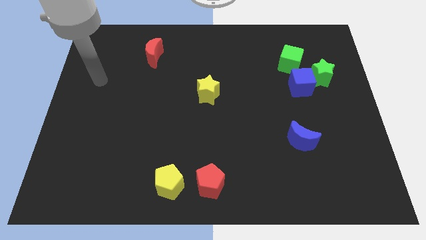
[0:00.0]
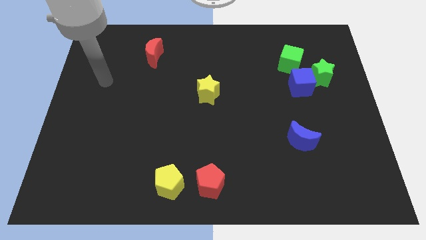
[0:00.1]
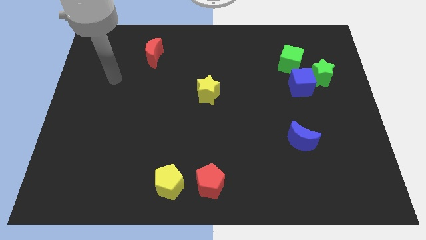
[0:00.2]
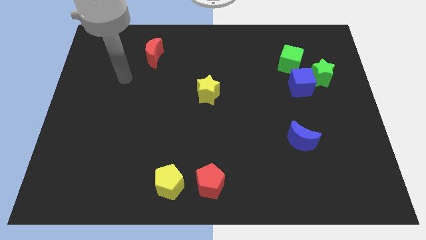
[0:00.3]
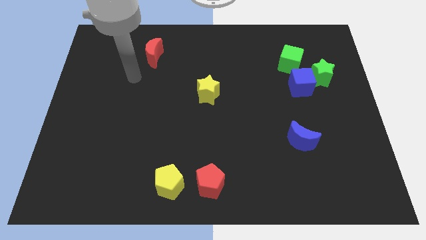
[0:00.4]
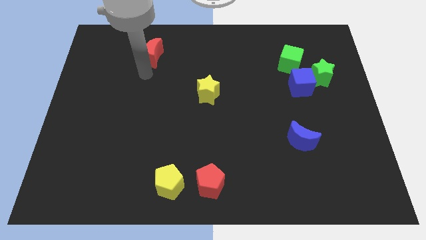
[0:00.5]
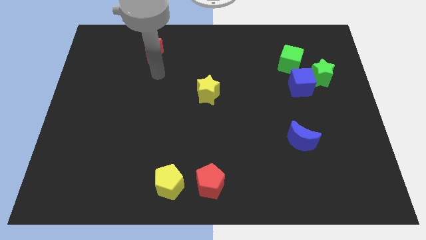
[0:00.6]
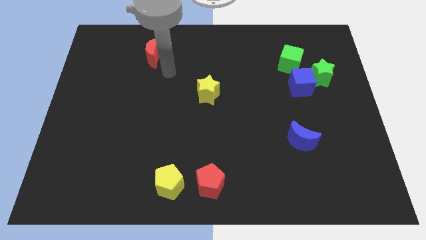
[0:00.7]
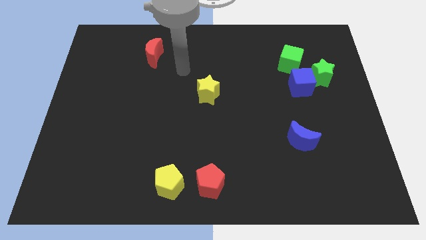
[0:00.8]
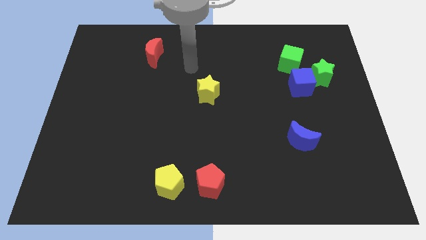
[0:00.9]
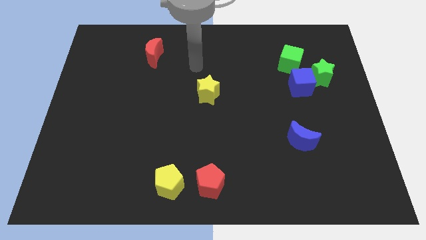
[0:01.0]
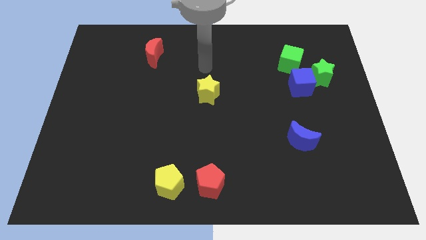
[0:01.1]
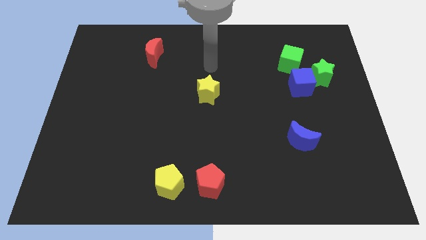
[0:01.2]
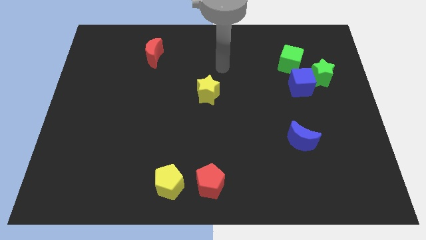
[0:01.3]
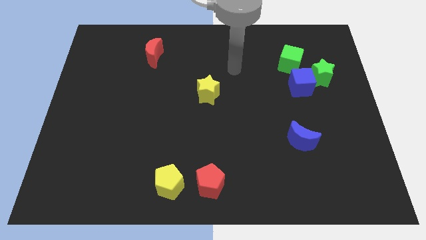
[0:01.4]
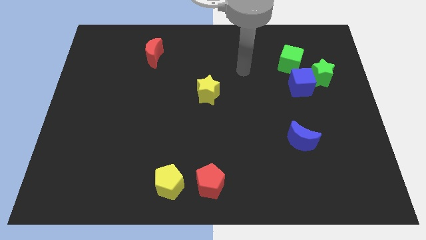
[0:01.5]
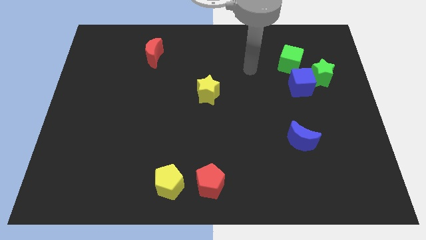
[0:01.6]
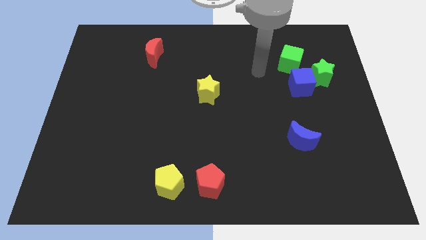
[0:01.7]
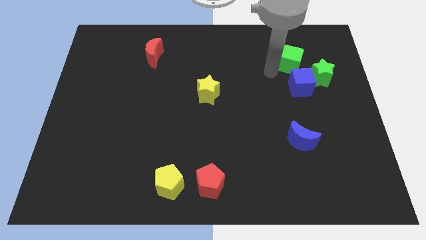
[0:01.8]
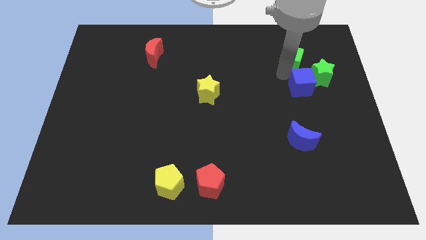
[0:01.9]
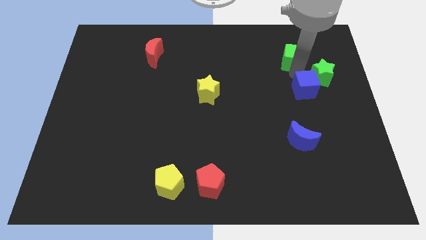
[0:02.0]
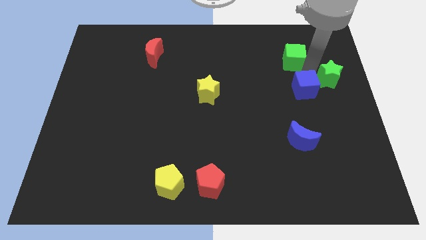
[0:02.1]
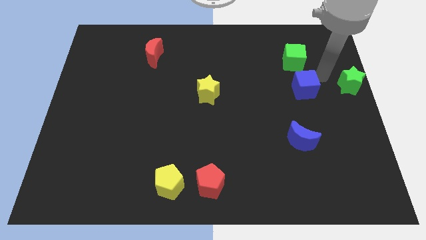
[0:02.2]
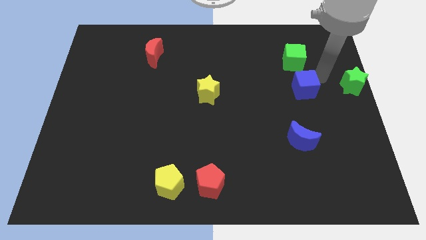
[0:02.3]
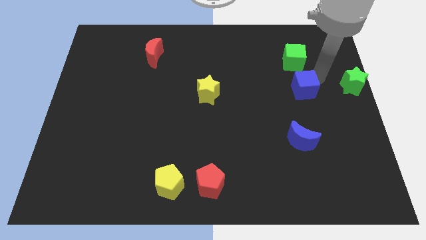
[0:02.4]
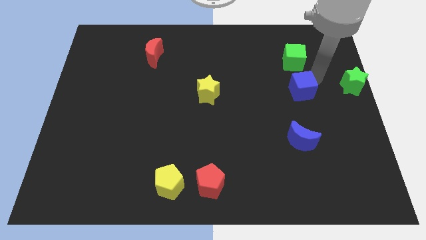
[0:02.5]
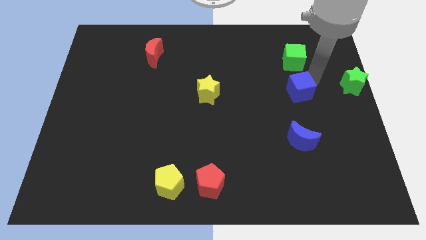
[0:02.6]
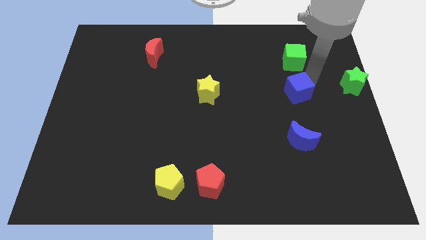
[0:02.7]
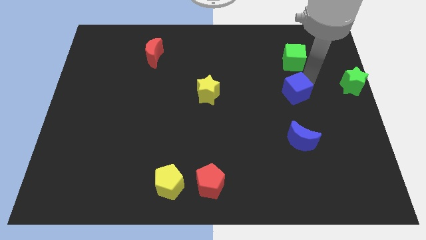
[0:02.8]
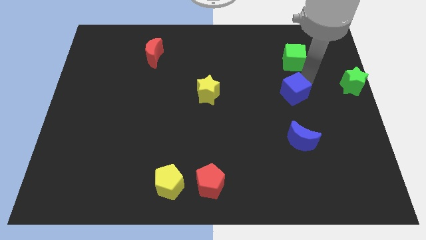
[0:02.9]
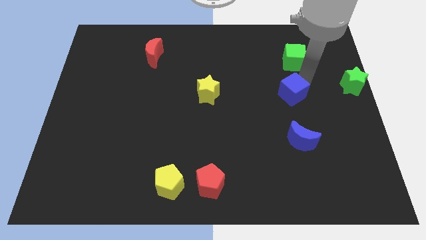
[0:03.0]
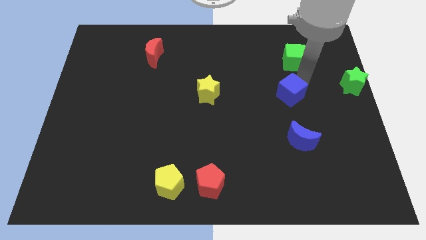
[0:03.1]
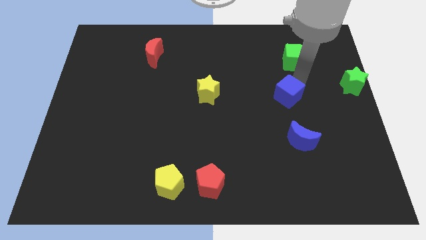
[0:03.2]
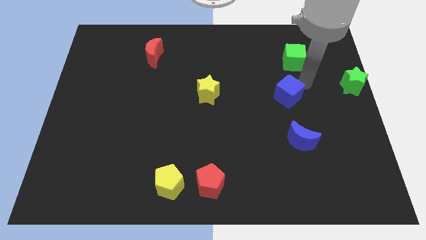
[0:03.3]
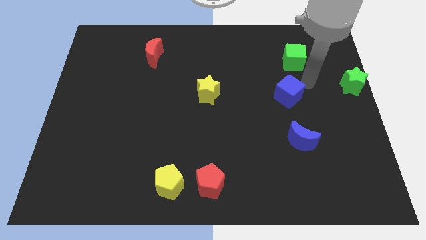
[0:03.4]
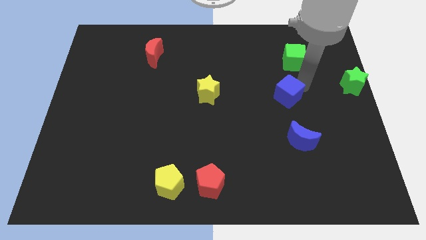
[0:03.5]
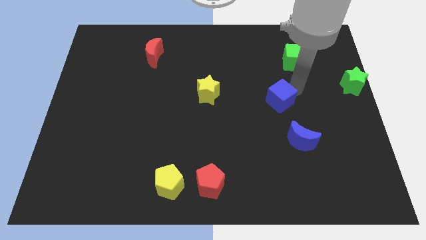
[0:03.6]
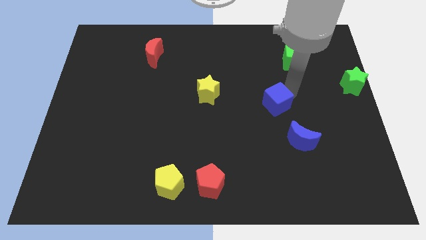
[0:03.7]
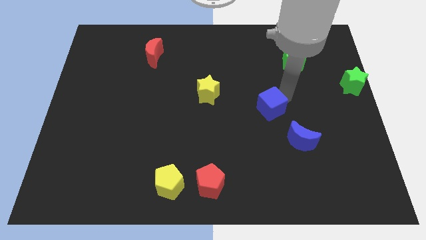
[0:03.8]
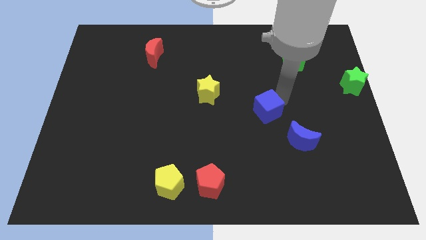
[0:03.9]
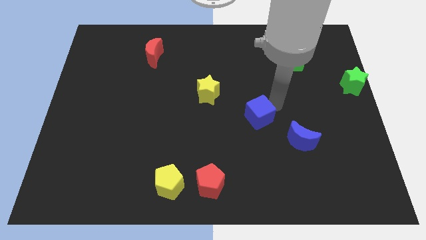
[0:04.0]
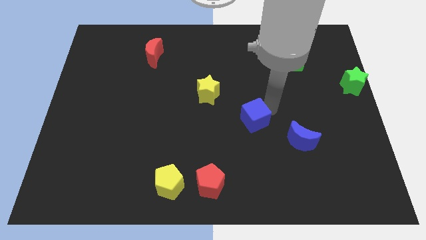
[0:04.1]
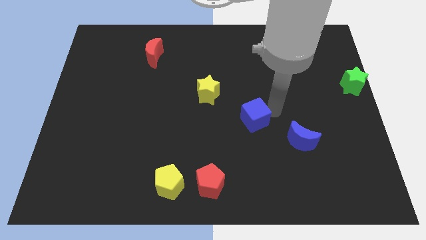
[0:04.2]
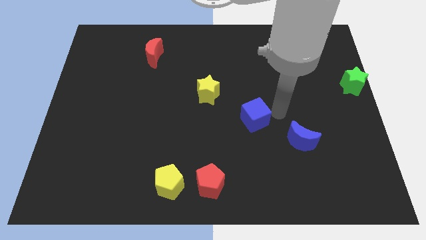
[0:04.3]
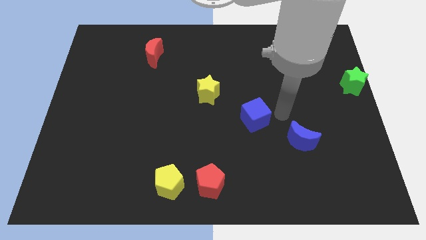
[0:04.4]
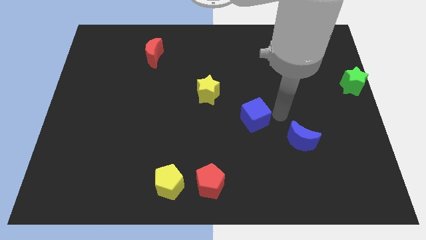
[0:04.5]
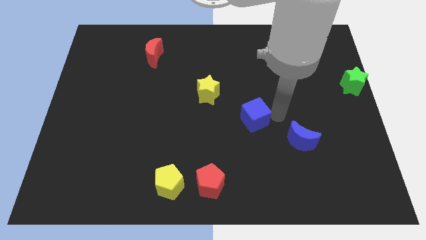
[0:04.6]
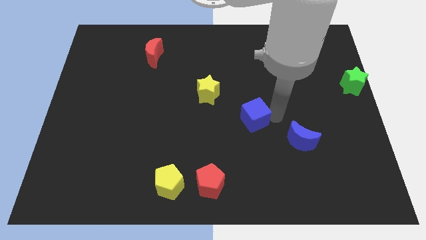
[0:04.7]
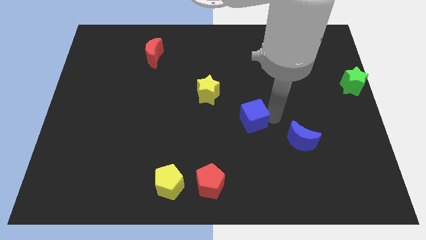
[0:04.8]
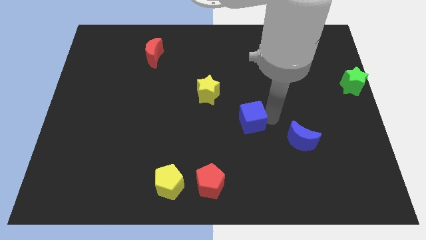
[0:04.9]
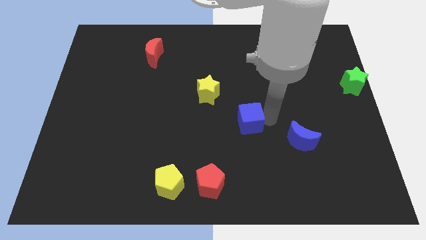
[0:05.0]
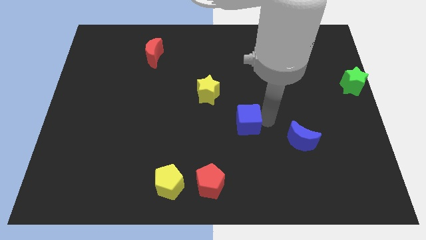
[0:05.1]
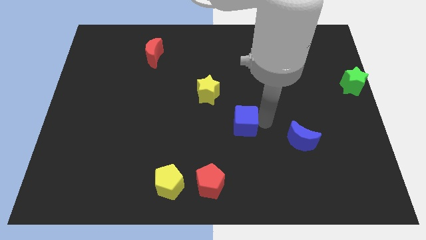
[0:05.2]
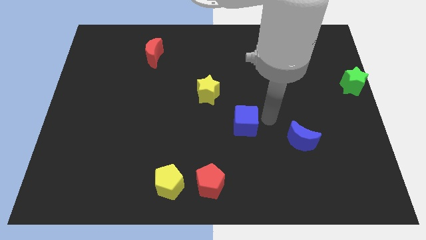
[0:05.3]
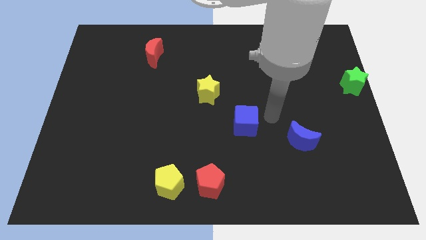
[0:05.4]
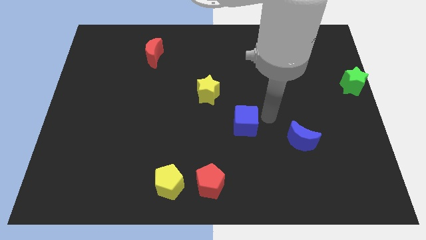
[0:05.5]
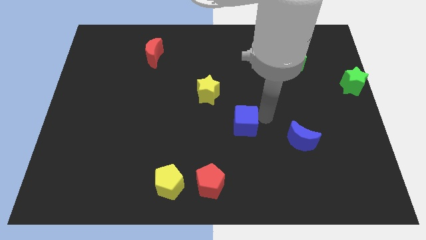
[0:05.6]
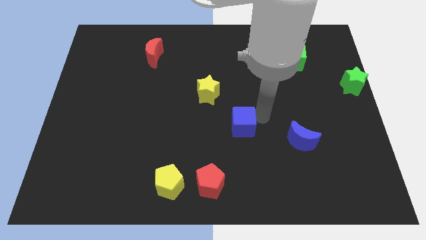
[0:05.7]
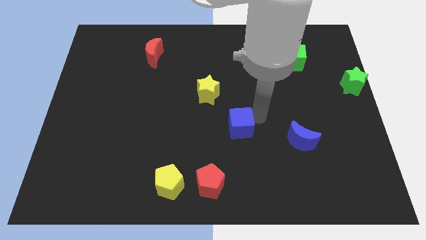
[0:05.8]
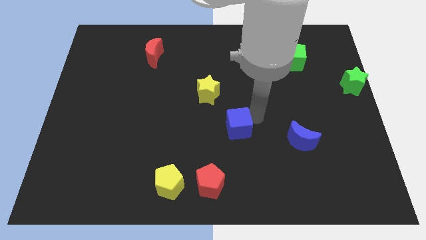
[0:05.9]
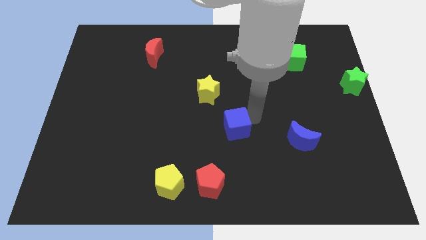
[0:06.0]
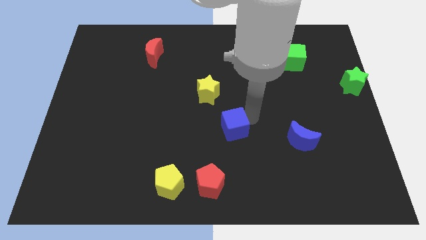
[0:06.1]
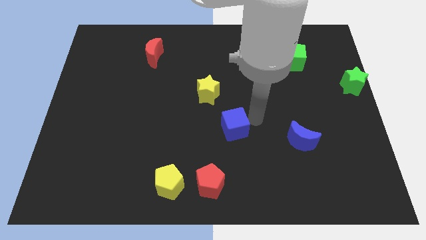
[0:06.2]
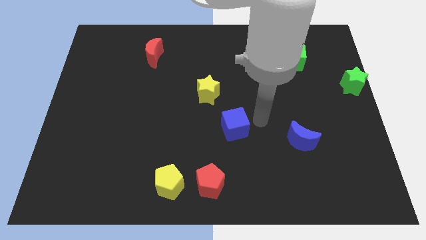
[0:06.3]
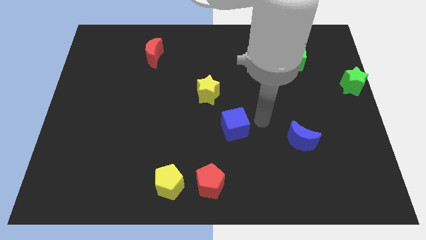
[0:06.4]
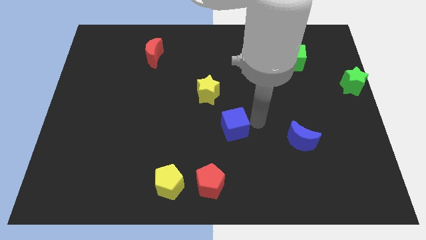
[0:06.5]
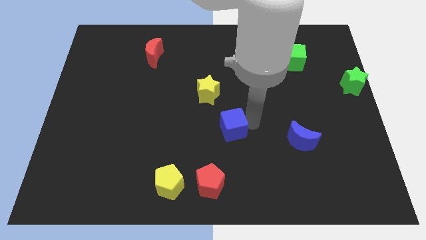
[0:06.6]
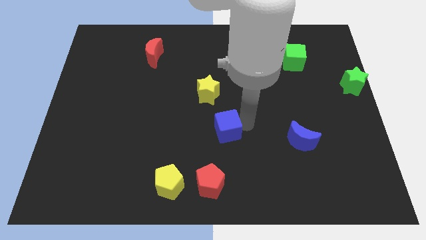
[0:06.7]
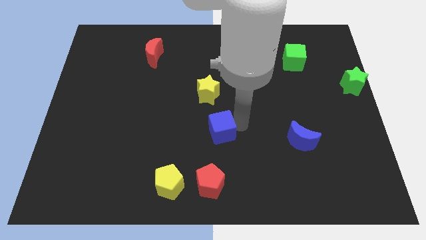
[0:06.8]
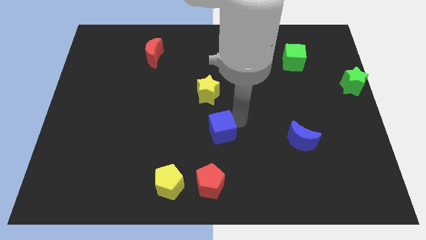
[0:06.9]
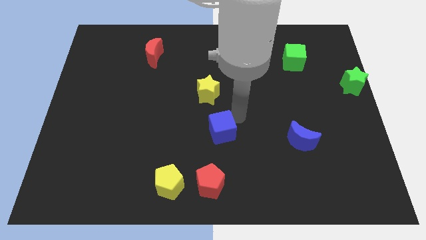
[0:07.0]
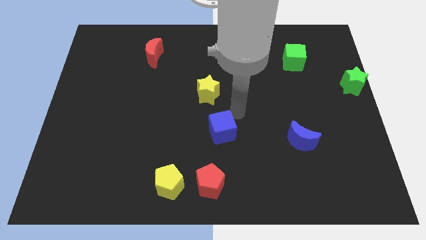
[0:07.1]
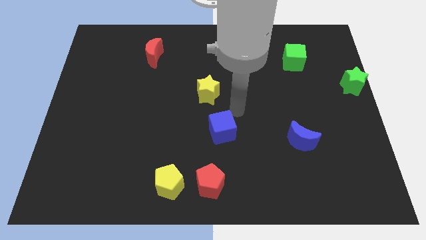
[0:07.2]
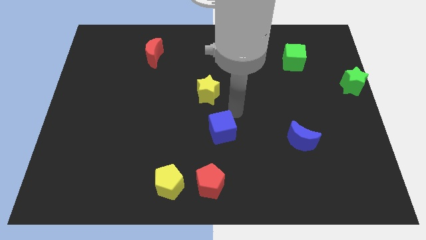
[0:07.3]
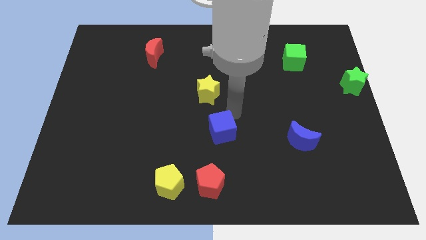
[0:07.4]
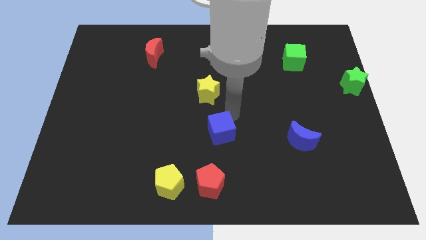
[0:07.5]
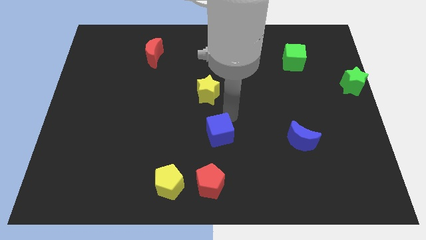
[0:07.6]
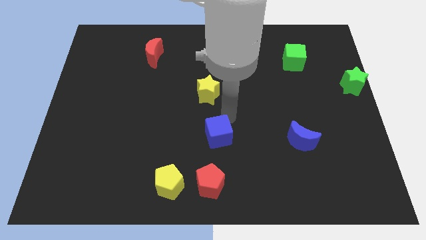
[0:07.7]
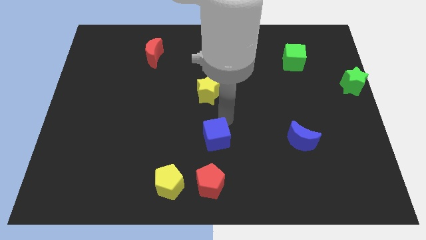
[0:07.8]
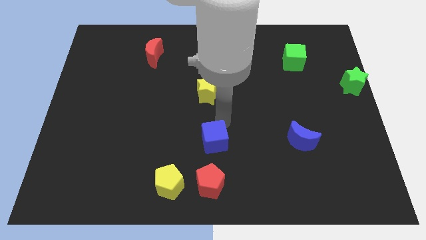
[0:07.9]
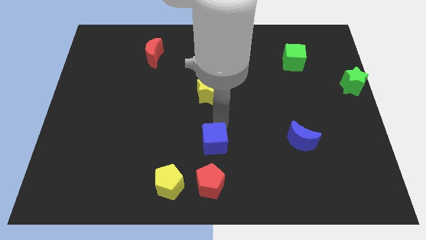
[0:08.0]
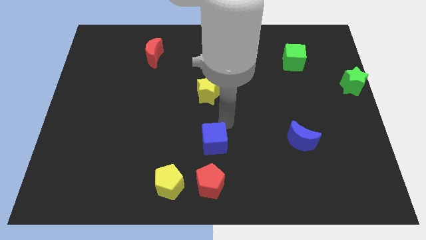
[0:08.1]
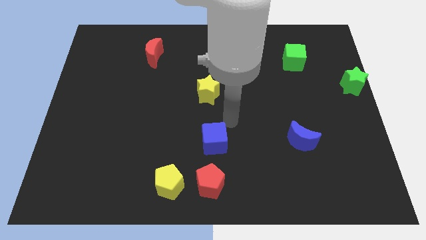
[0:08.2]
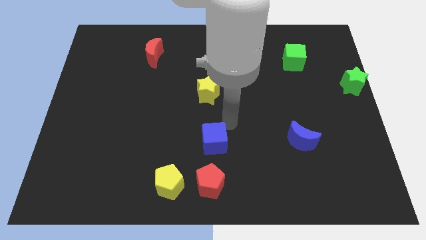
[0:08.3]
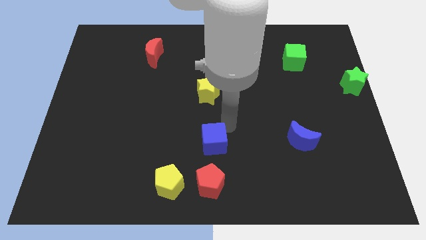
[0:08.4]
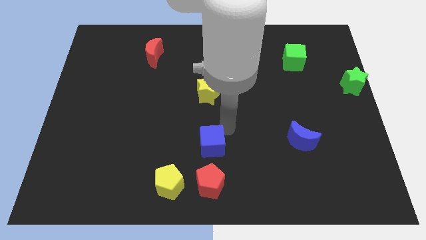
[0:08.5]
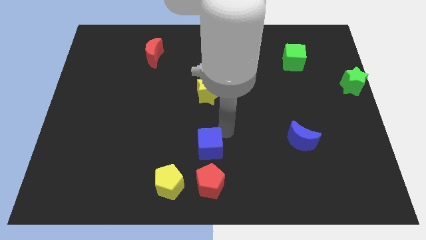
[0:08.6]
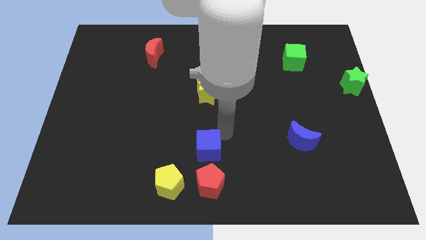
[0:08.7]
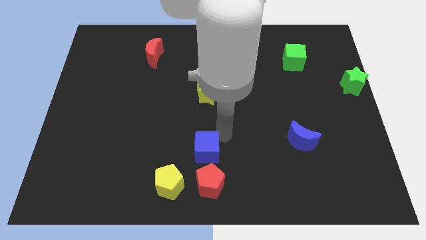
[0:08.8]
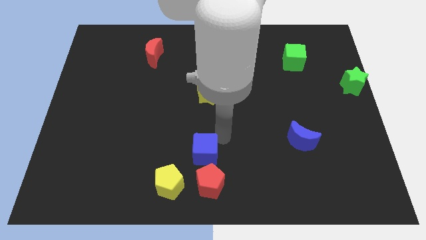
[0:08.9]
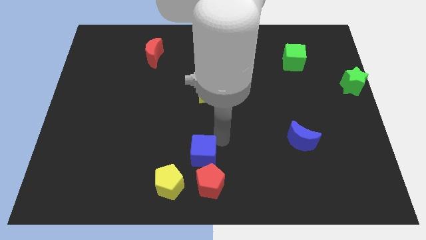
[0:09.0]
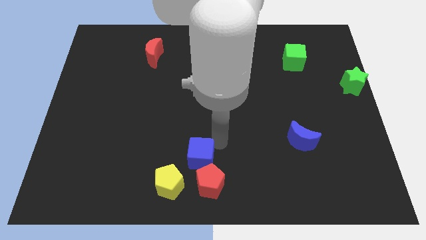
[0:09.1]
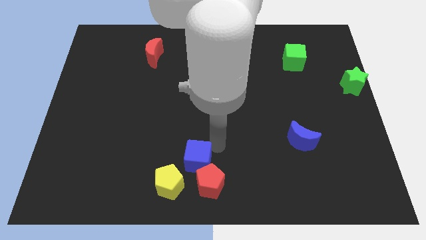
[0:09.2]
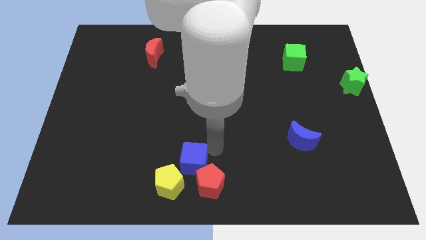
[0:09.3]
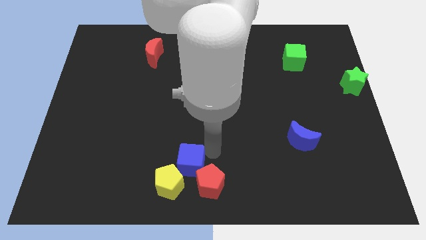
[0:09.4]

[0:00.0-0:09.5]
slide the blue cube close to the yellow pentagon
